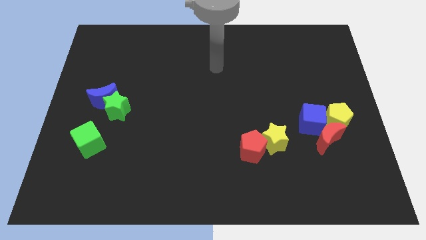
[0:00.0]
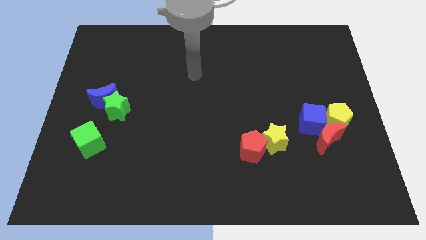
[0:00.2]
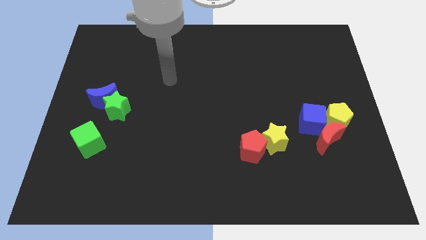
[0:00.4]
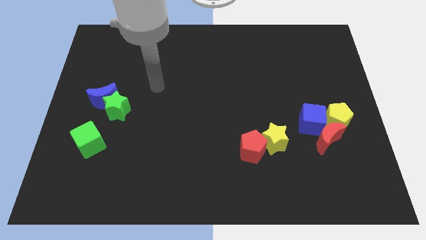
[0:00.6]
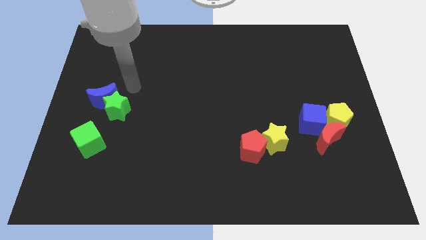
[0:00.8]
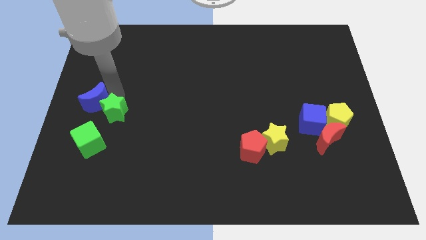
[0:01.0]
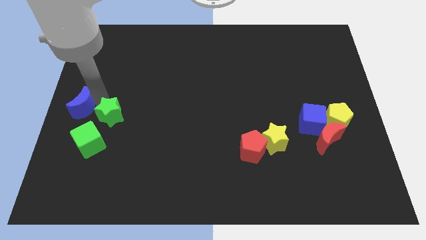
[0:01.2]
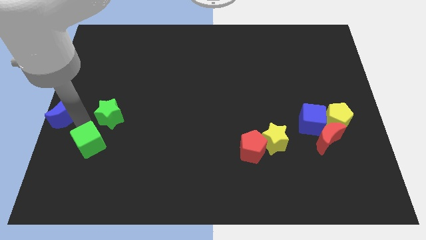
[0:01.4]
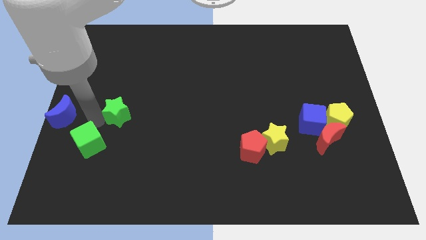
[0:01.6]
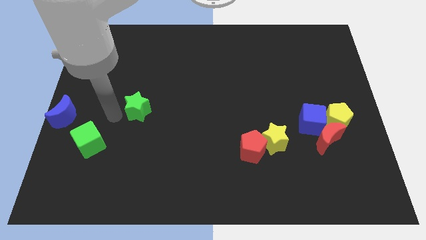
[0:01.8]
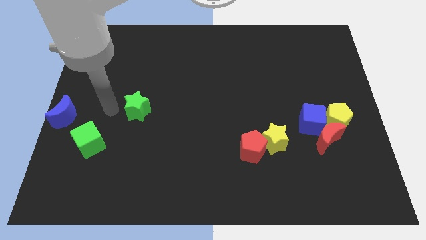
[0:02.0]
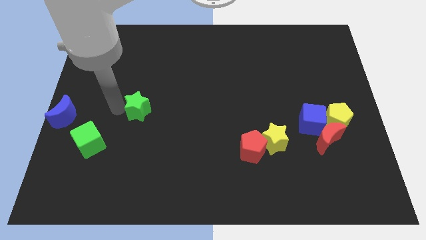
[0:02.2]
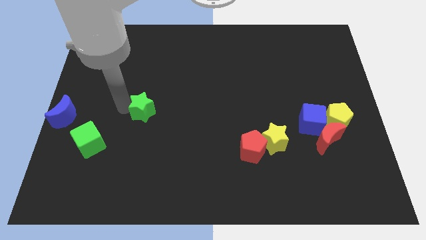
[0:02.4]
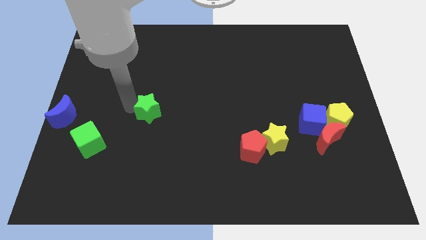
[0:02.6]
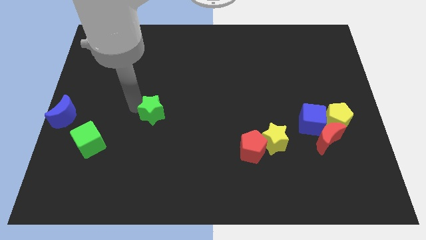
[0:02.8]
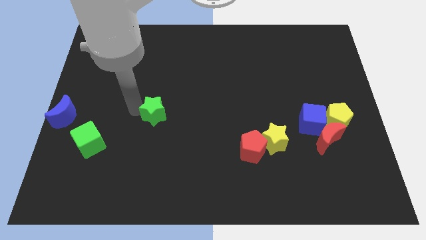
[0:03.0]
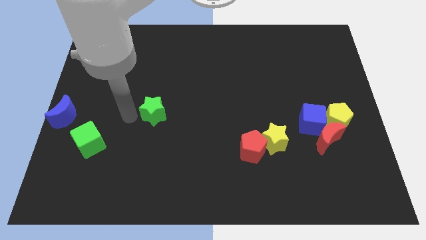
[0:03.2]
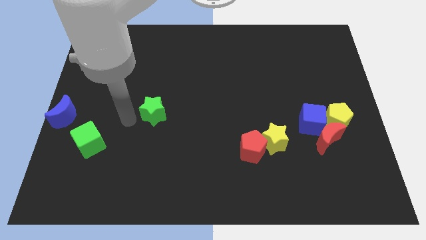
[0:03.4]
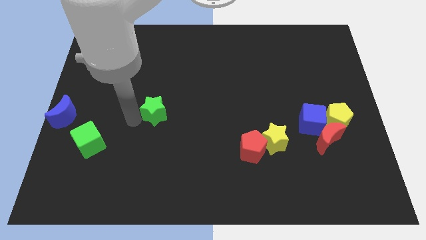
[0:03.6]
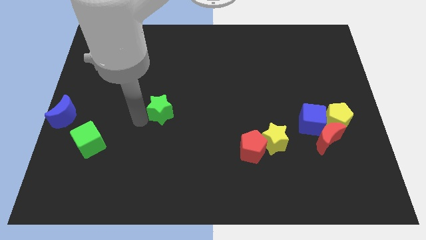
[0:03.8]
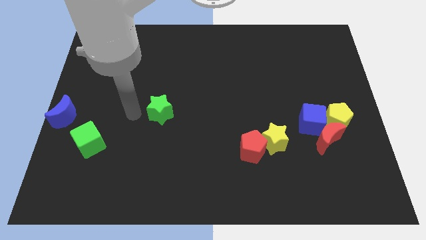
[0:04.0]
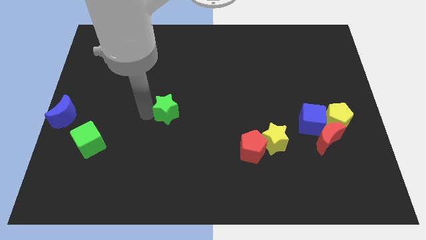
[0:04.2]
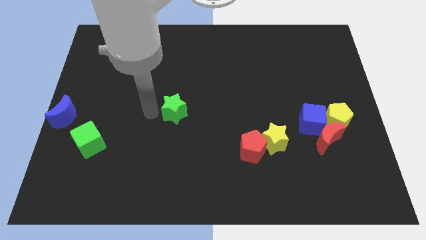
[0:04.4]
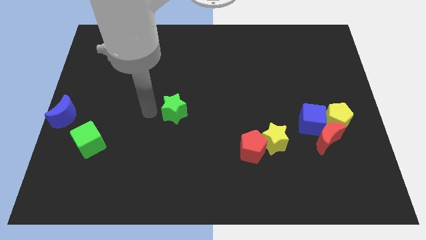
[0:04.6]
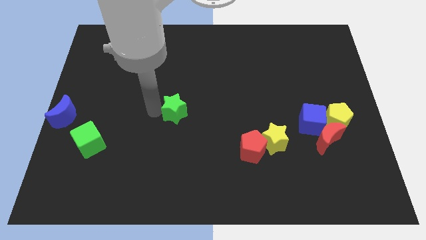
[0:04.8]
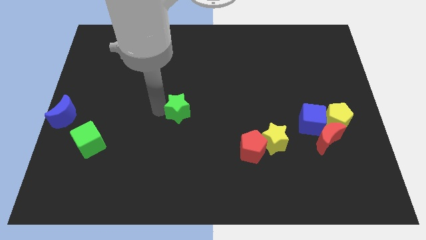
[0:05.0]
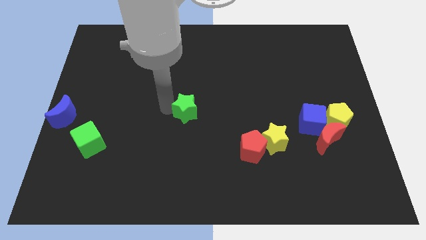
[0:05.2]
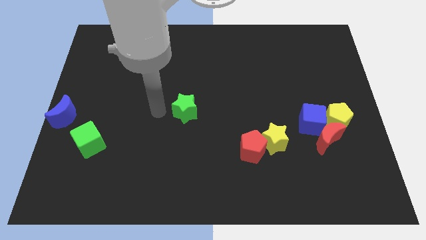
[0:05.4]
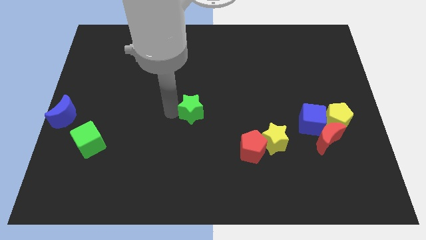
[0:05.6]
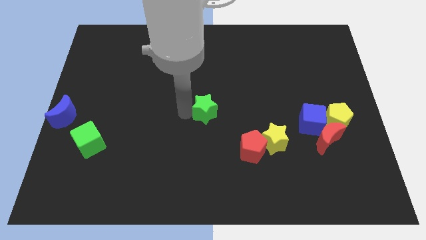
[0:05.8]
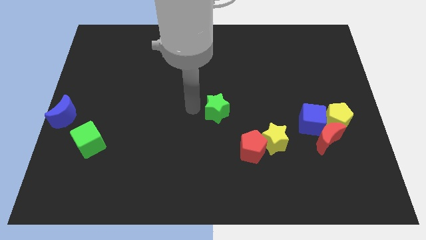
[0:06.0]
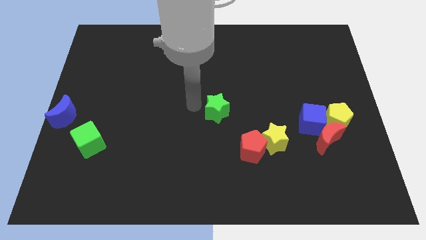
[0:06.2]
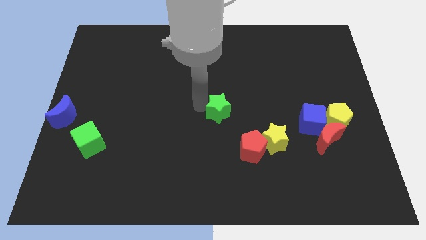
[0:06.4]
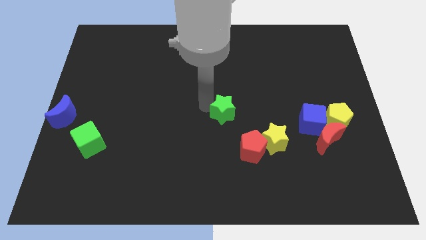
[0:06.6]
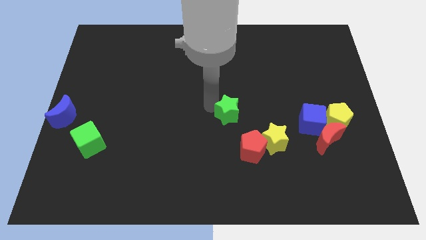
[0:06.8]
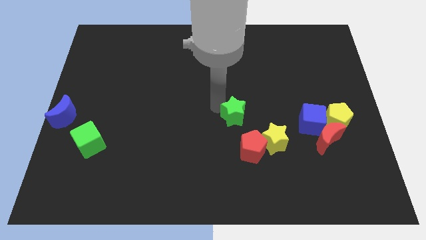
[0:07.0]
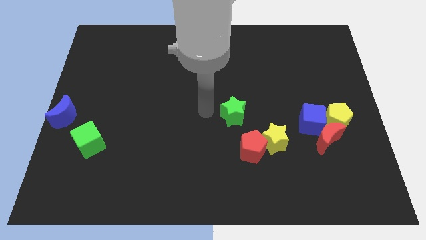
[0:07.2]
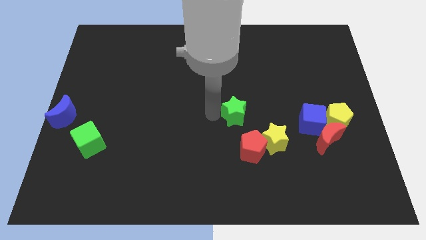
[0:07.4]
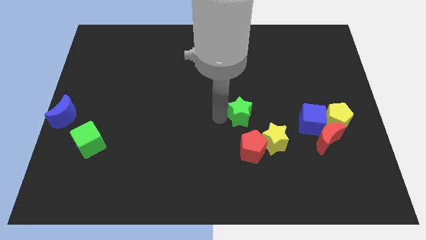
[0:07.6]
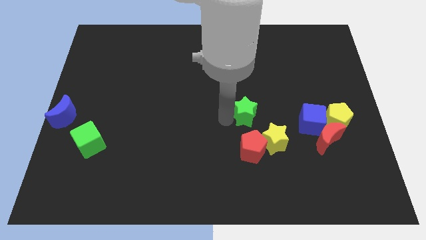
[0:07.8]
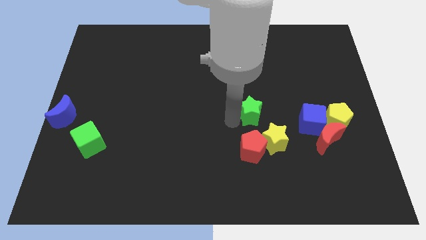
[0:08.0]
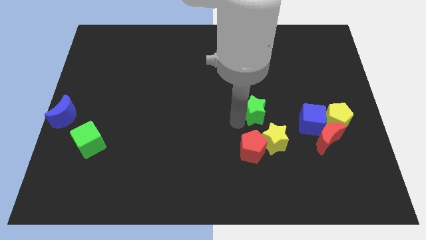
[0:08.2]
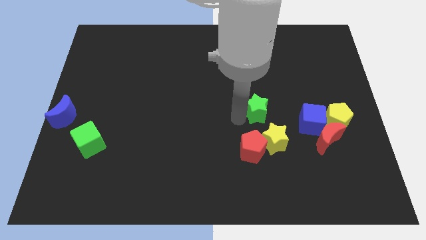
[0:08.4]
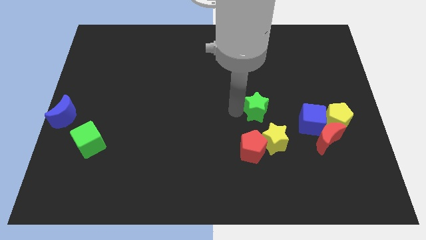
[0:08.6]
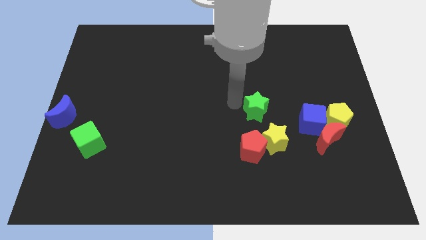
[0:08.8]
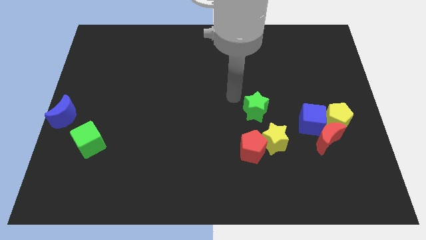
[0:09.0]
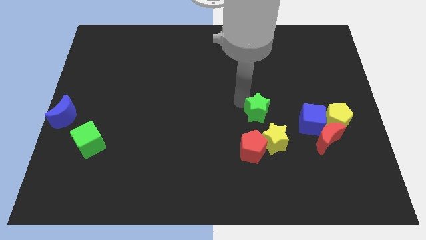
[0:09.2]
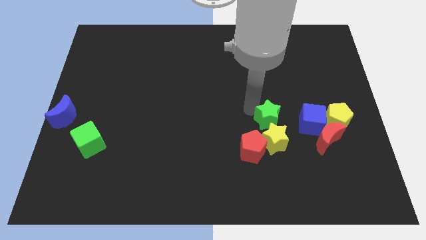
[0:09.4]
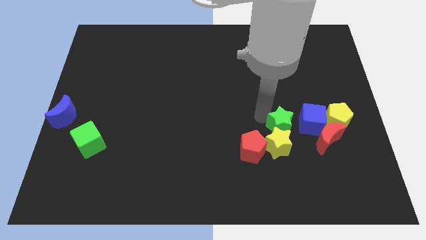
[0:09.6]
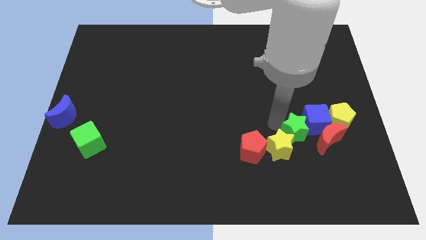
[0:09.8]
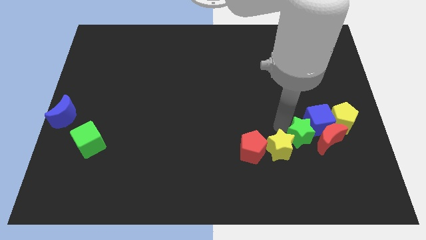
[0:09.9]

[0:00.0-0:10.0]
put the green star towards the red moon

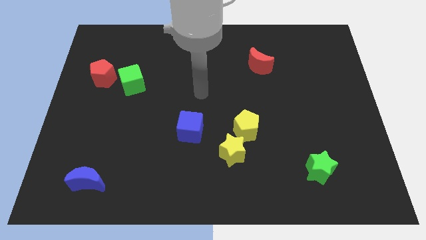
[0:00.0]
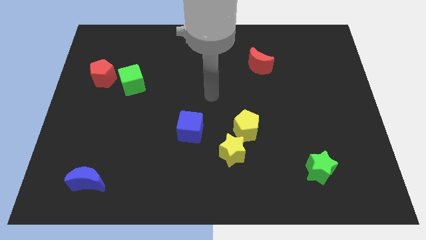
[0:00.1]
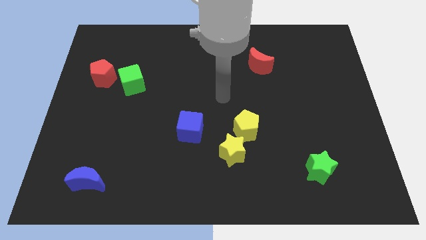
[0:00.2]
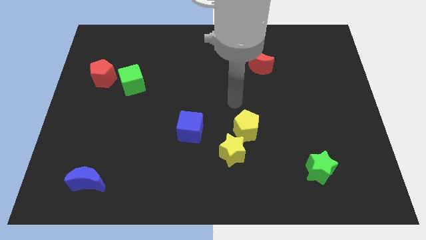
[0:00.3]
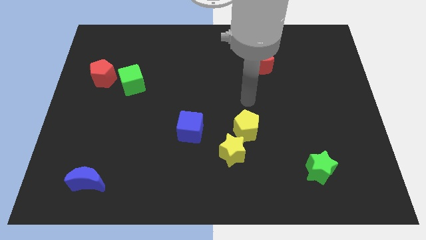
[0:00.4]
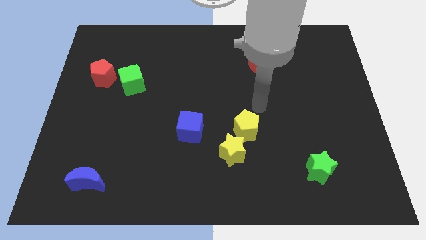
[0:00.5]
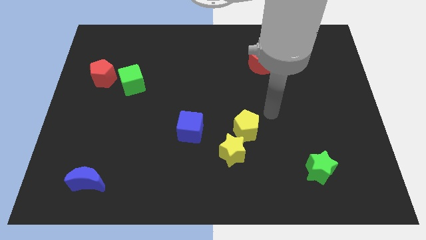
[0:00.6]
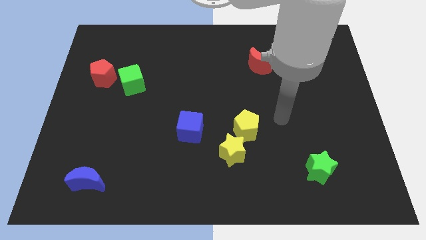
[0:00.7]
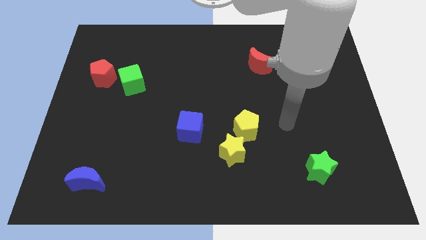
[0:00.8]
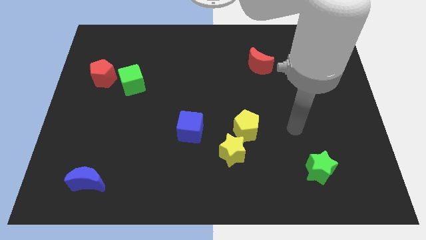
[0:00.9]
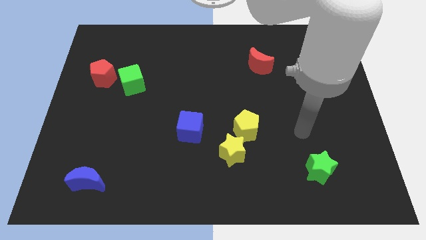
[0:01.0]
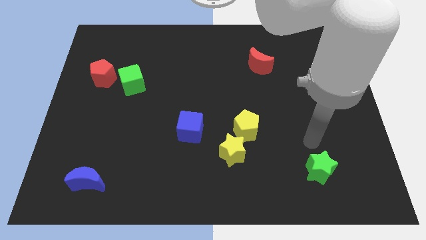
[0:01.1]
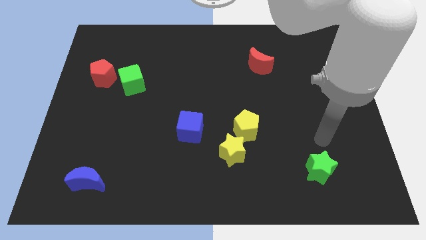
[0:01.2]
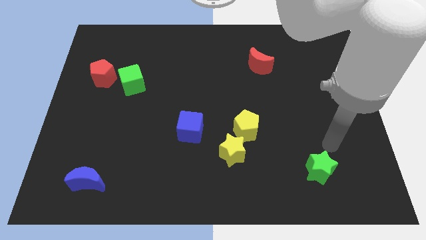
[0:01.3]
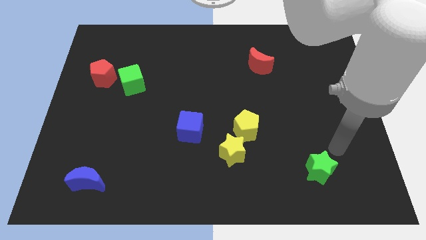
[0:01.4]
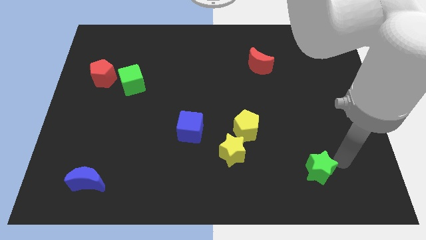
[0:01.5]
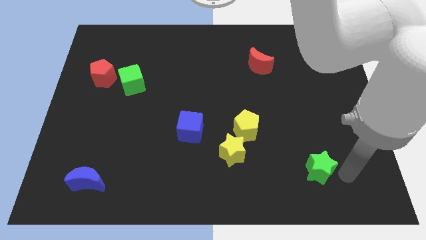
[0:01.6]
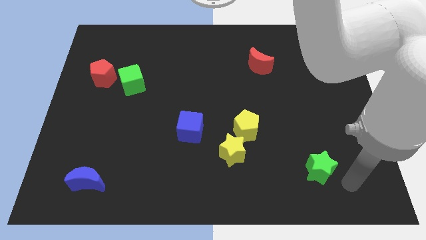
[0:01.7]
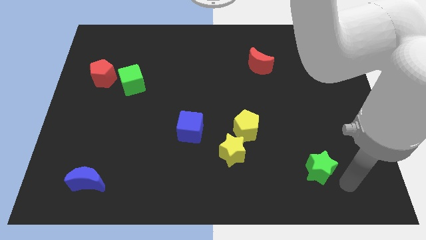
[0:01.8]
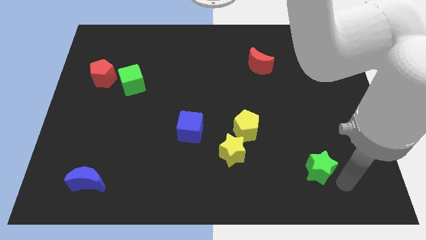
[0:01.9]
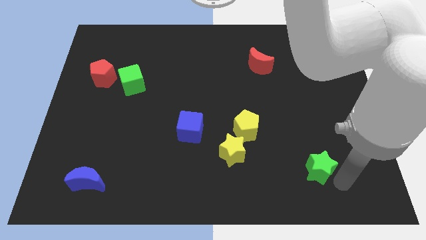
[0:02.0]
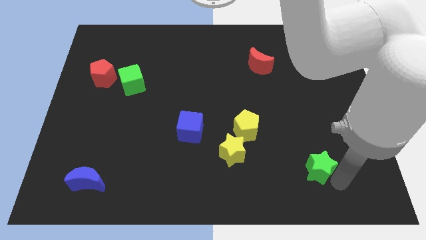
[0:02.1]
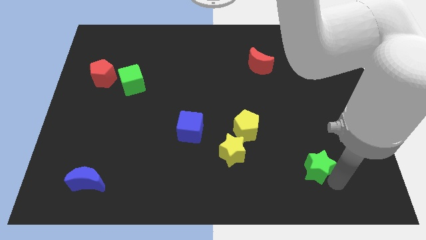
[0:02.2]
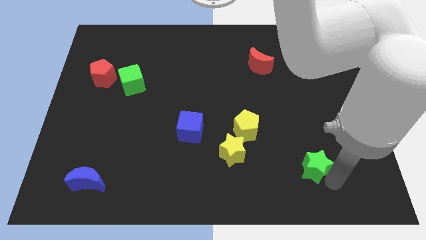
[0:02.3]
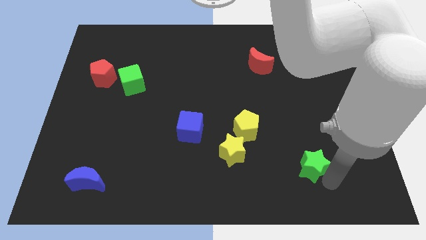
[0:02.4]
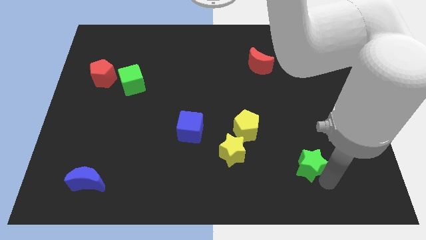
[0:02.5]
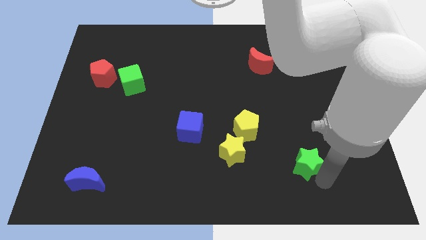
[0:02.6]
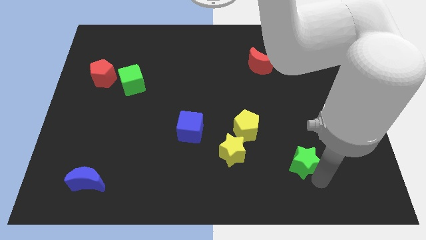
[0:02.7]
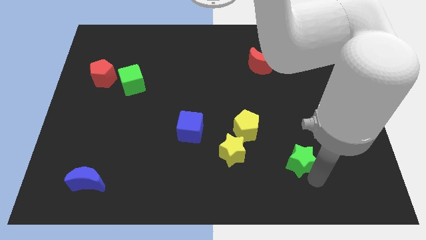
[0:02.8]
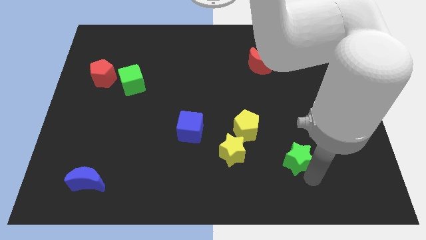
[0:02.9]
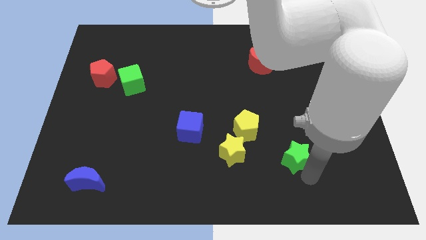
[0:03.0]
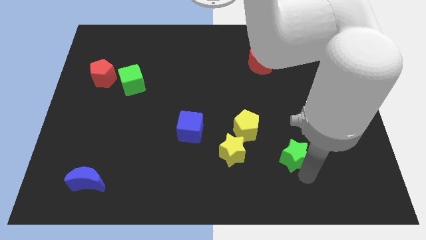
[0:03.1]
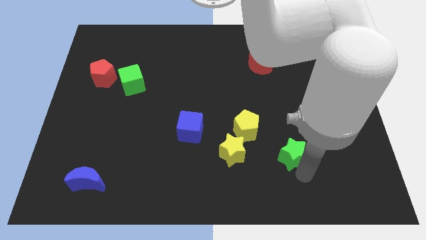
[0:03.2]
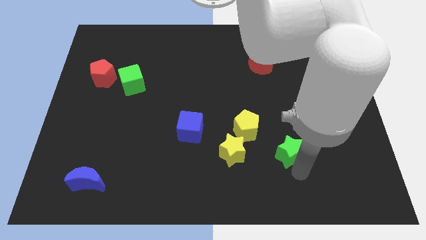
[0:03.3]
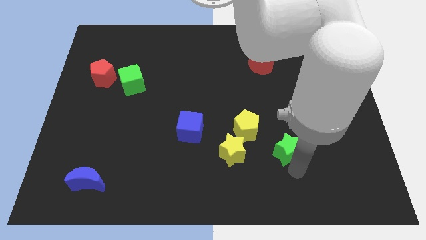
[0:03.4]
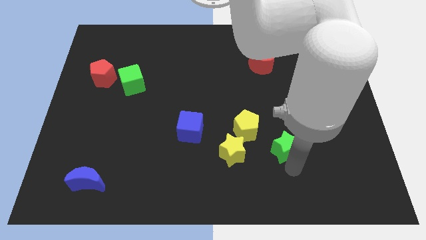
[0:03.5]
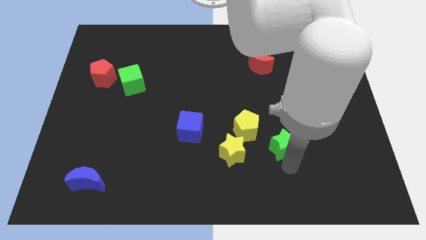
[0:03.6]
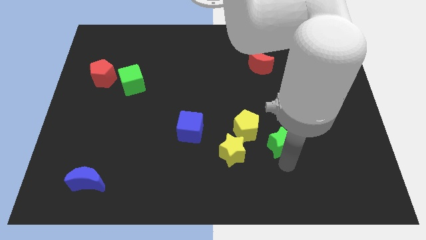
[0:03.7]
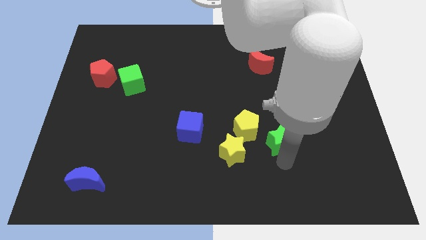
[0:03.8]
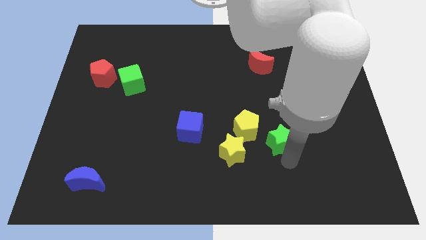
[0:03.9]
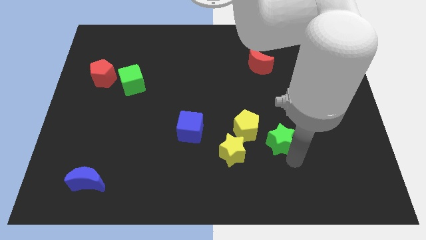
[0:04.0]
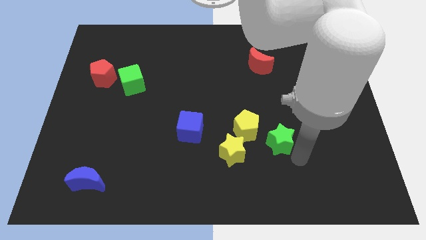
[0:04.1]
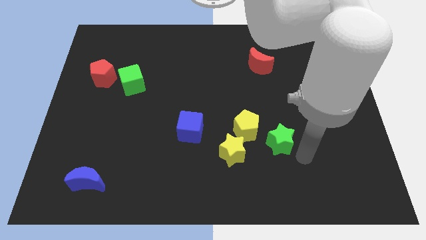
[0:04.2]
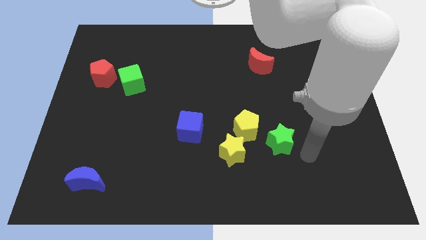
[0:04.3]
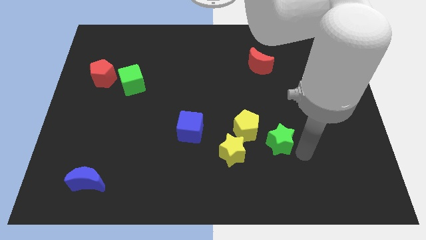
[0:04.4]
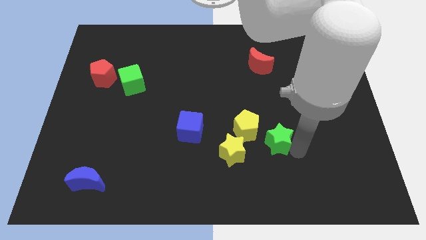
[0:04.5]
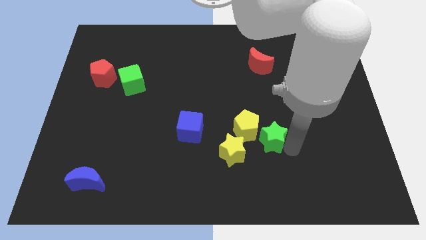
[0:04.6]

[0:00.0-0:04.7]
slide the green star close to the yellow pentagon
